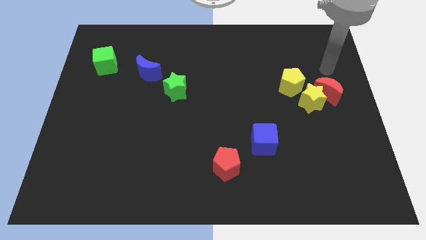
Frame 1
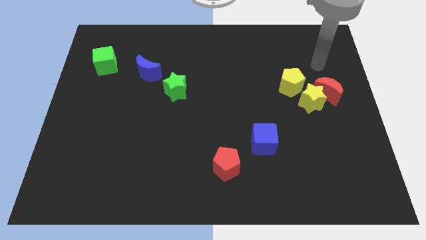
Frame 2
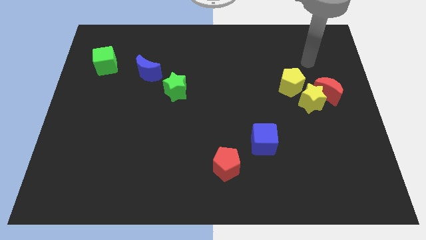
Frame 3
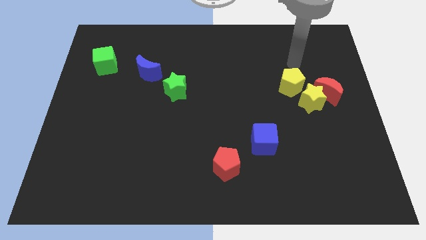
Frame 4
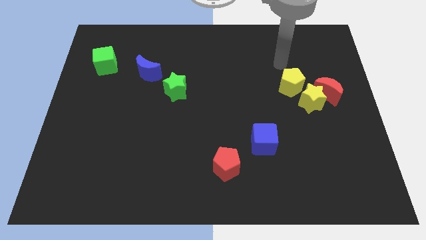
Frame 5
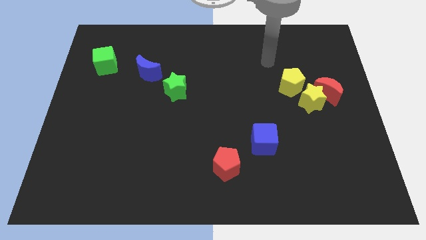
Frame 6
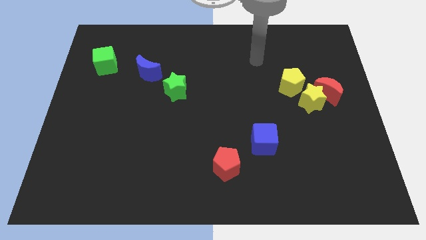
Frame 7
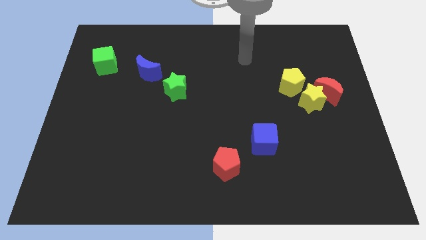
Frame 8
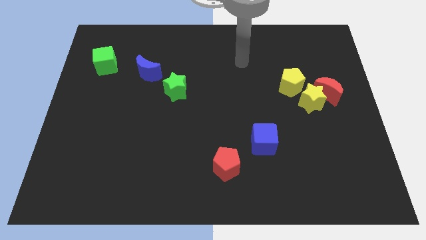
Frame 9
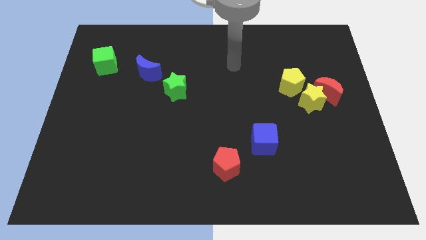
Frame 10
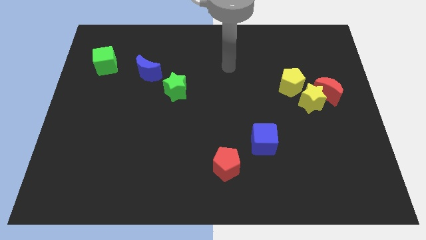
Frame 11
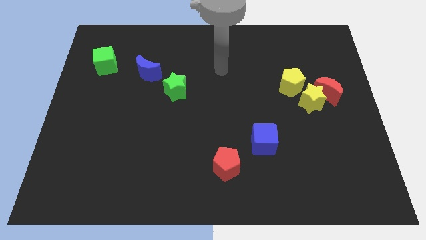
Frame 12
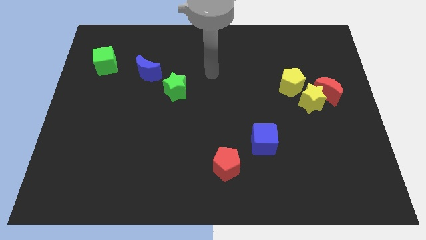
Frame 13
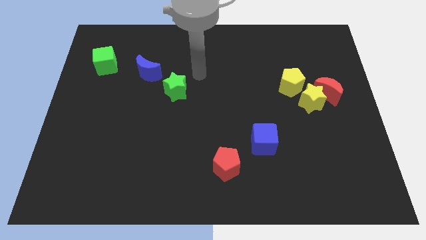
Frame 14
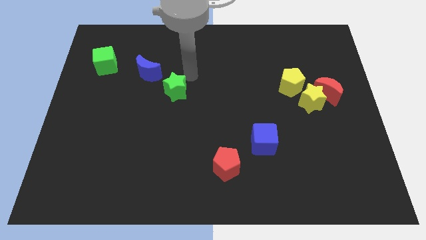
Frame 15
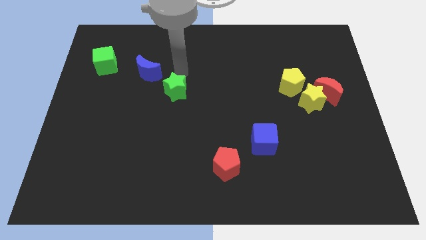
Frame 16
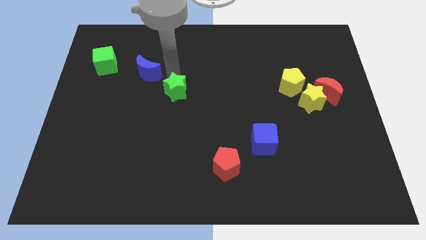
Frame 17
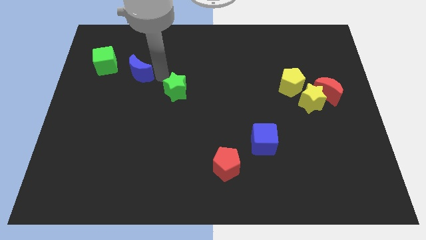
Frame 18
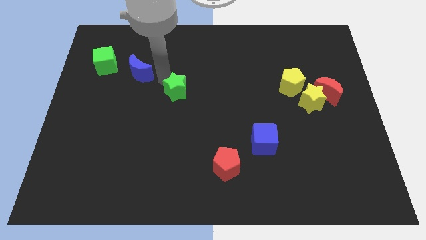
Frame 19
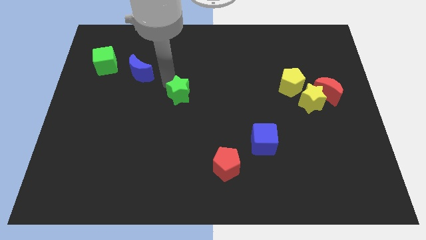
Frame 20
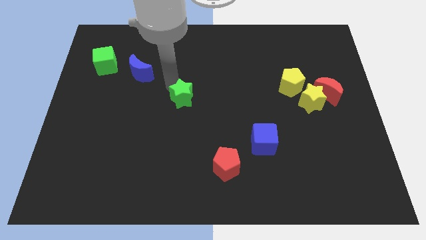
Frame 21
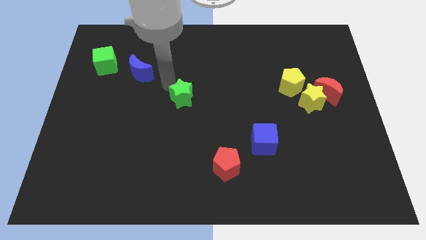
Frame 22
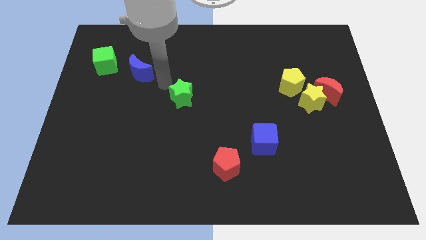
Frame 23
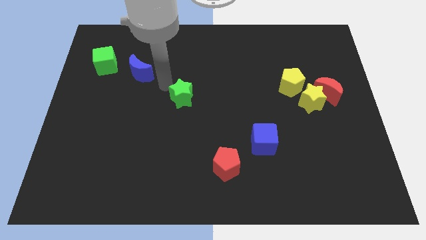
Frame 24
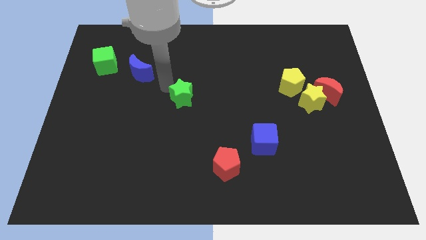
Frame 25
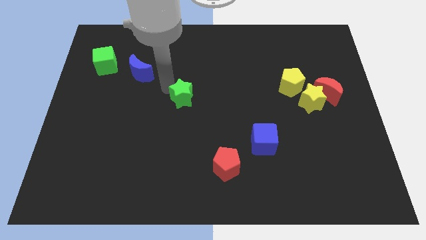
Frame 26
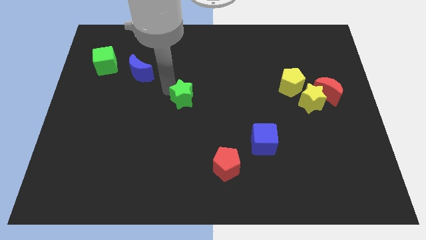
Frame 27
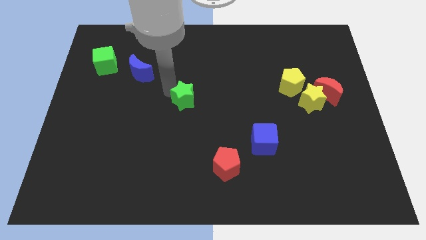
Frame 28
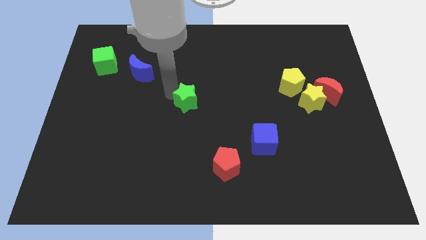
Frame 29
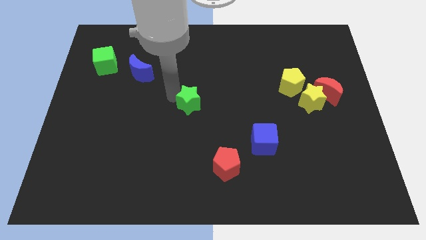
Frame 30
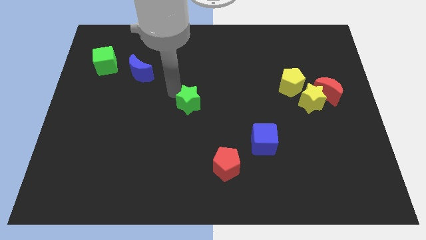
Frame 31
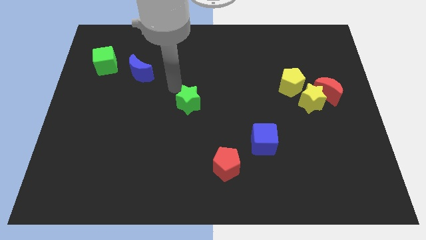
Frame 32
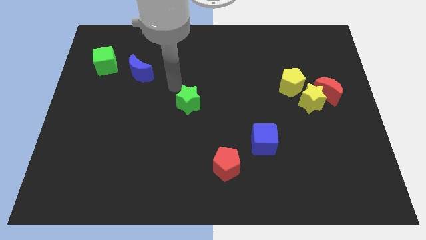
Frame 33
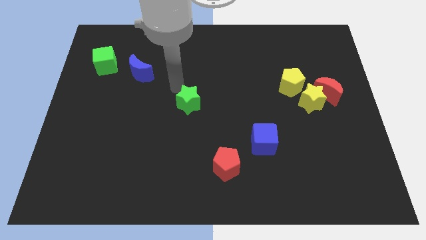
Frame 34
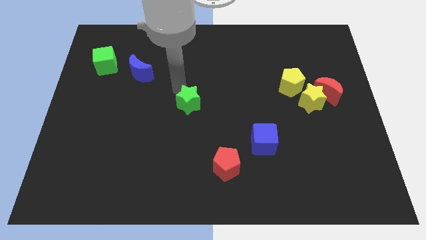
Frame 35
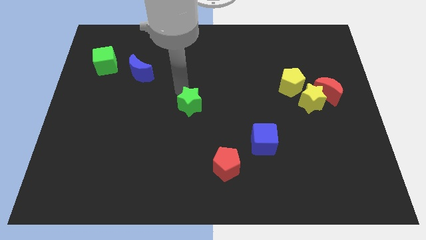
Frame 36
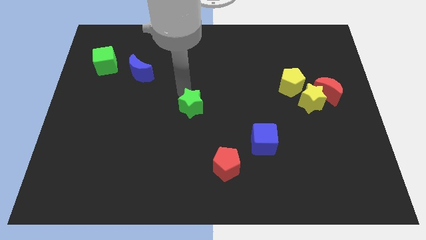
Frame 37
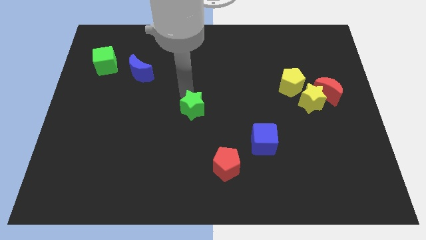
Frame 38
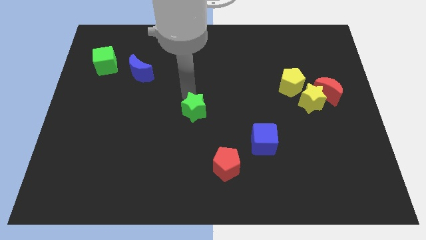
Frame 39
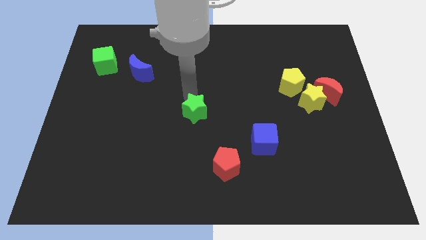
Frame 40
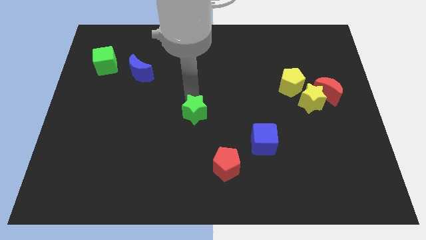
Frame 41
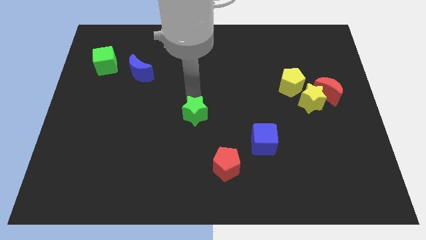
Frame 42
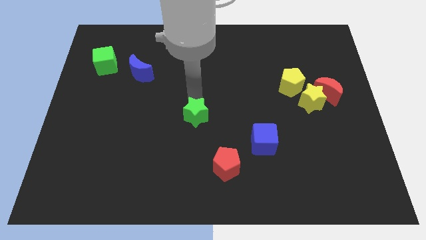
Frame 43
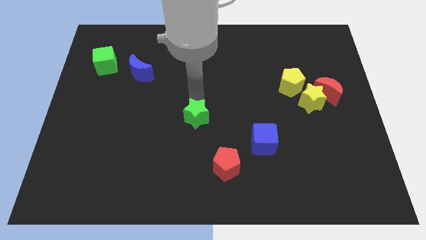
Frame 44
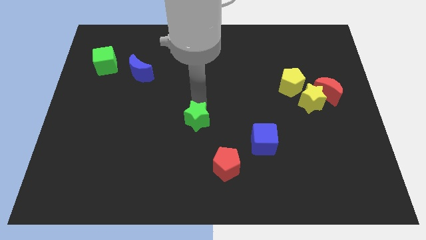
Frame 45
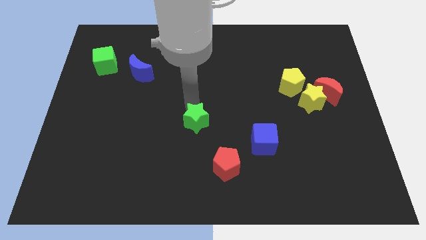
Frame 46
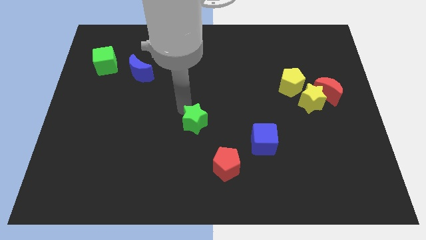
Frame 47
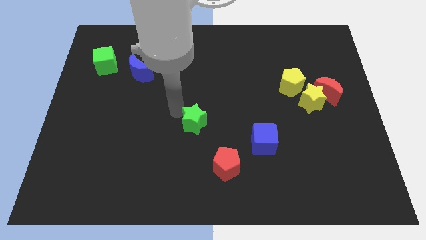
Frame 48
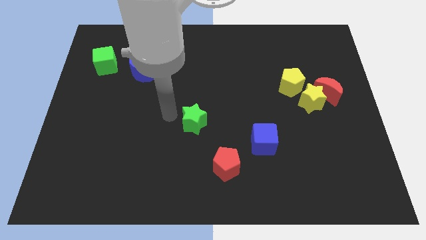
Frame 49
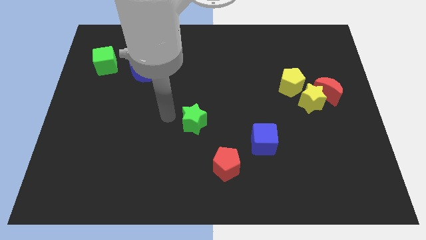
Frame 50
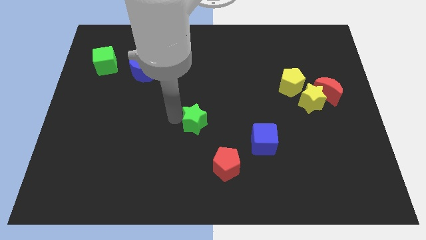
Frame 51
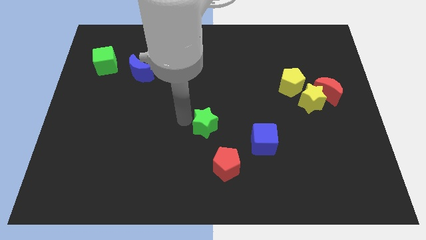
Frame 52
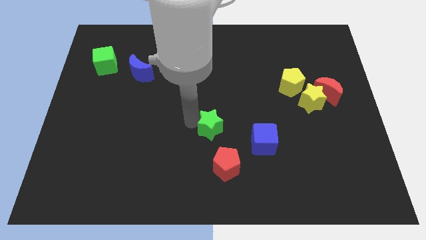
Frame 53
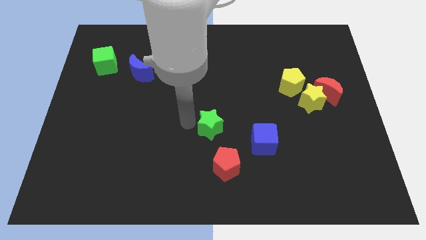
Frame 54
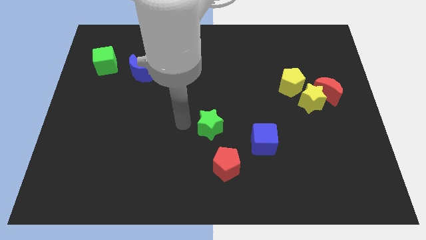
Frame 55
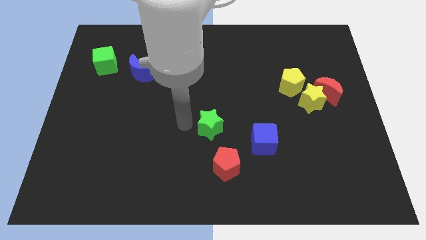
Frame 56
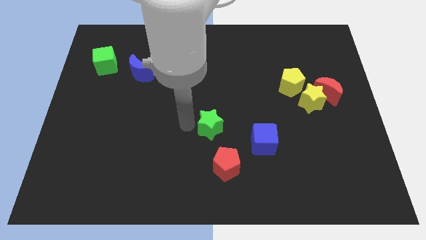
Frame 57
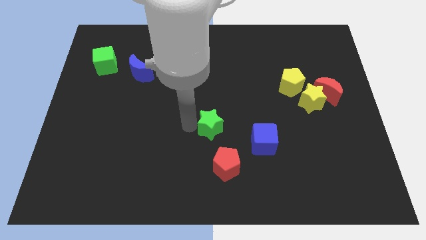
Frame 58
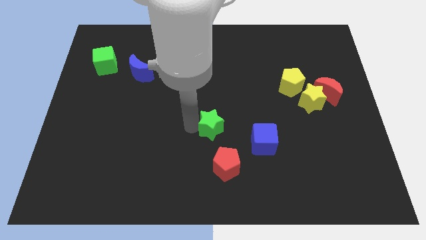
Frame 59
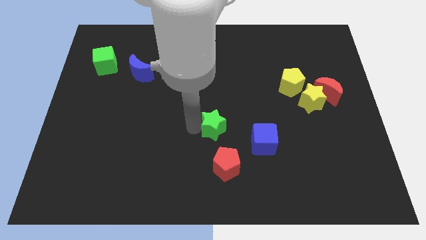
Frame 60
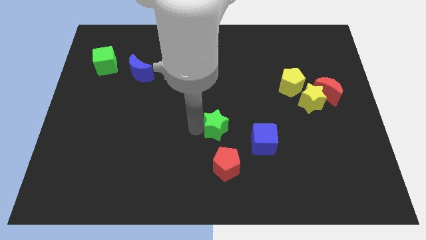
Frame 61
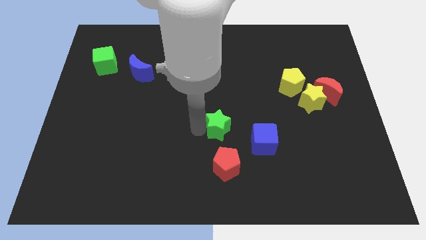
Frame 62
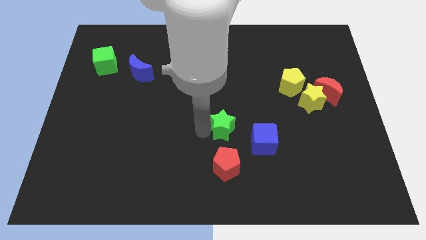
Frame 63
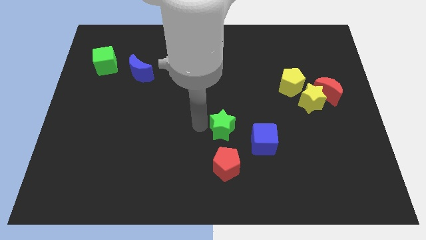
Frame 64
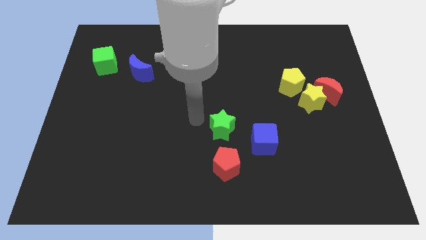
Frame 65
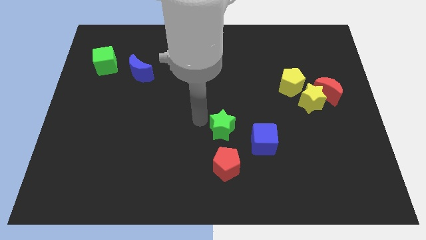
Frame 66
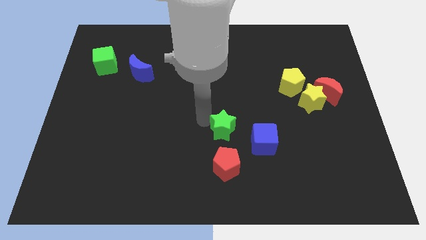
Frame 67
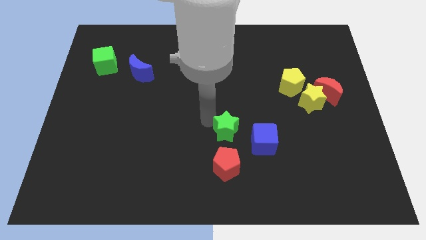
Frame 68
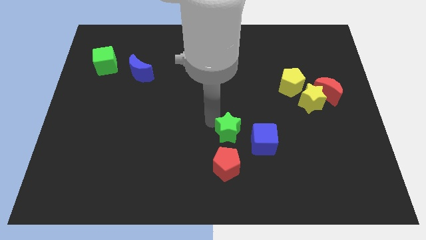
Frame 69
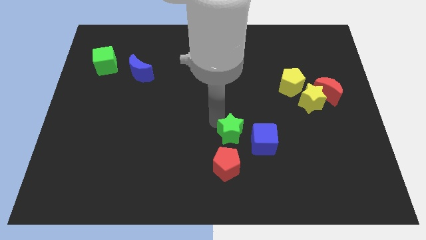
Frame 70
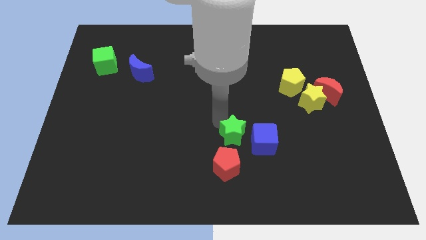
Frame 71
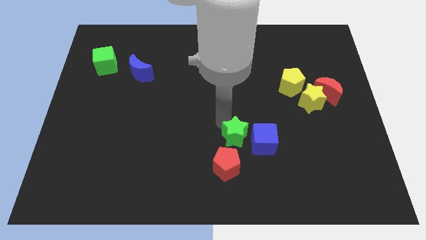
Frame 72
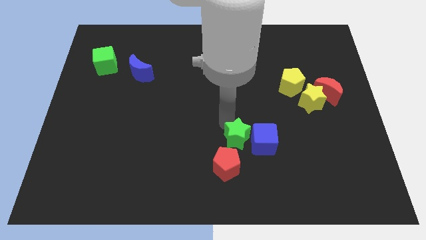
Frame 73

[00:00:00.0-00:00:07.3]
slide the green star close to the blue cube

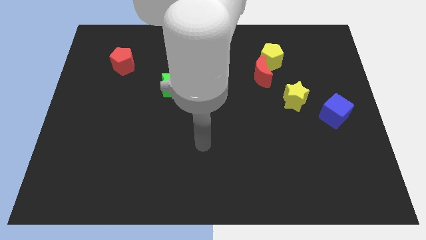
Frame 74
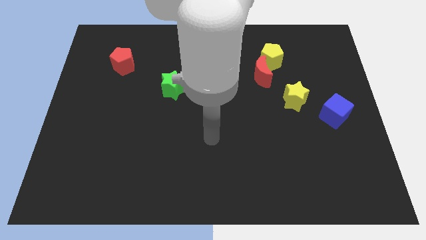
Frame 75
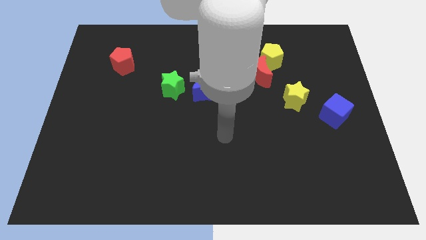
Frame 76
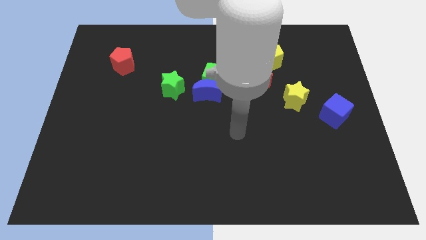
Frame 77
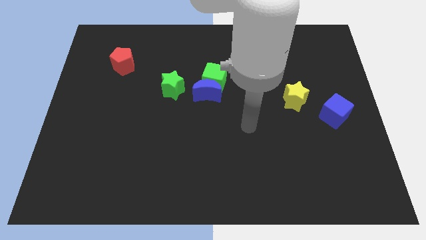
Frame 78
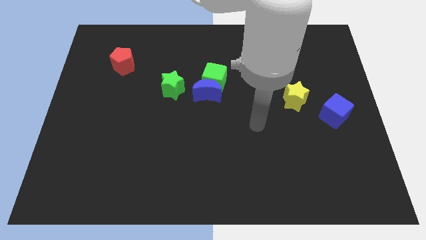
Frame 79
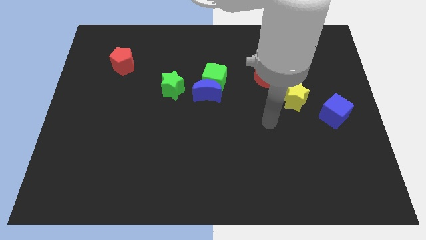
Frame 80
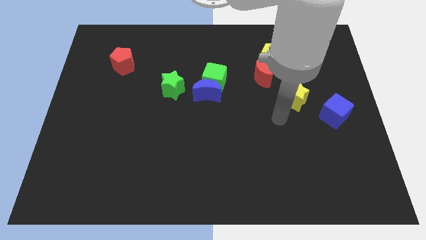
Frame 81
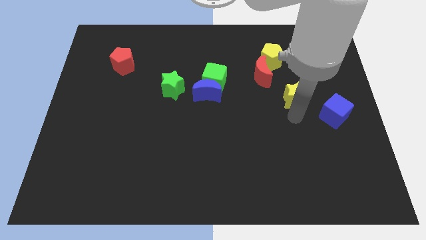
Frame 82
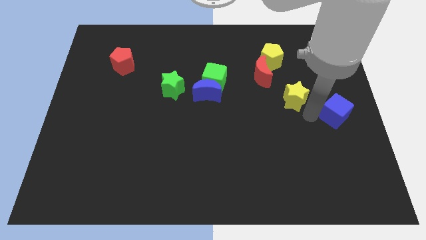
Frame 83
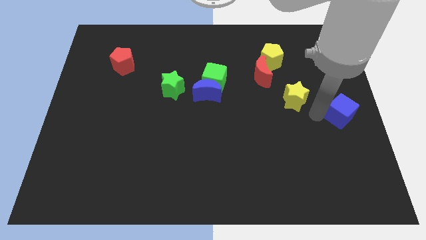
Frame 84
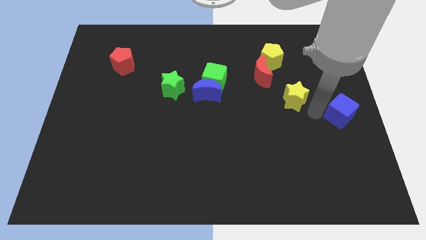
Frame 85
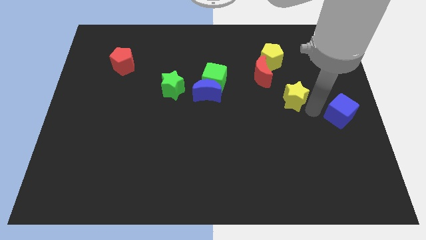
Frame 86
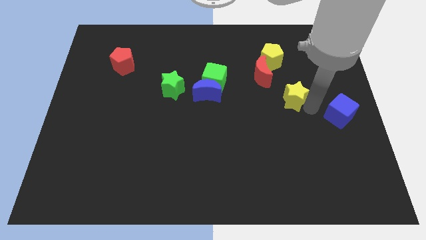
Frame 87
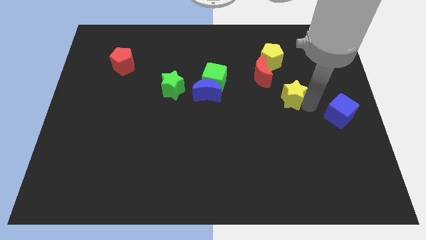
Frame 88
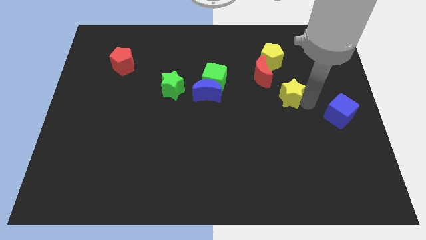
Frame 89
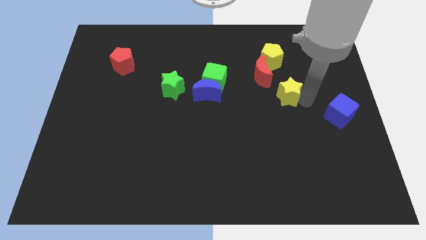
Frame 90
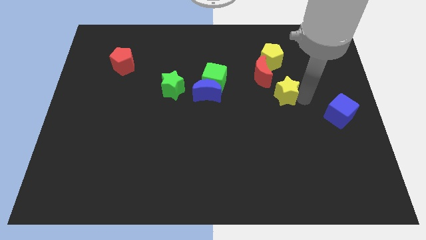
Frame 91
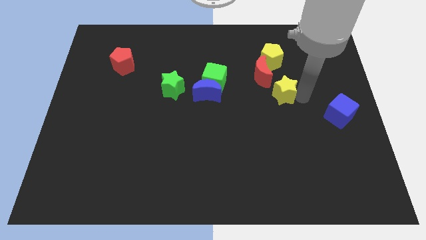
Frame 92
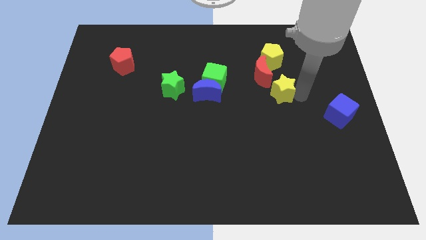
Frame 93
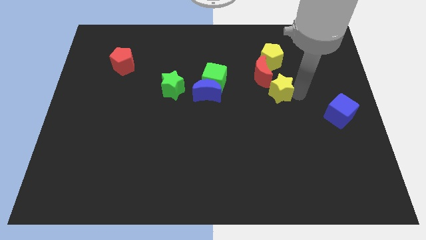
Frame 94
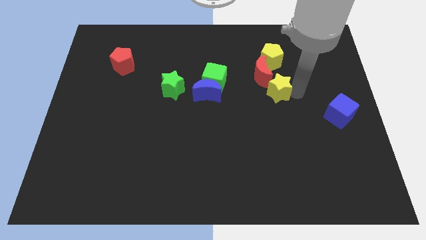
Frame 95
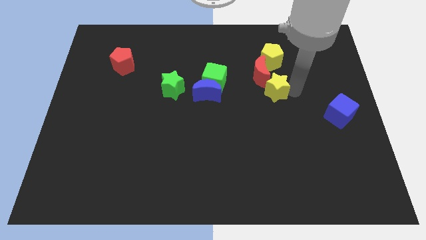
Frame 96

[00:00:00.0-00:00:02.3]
slide the yellow star to the red moon
